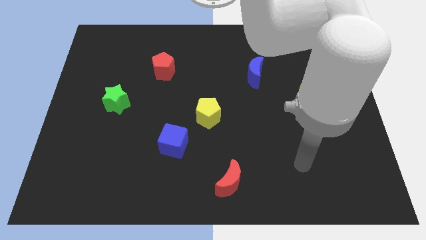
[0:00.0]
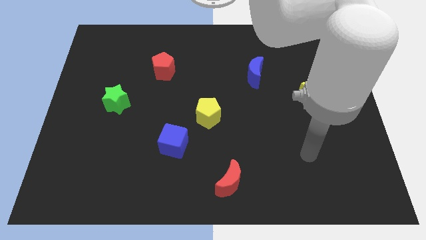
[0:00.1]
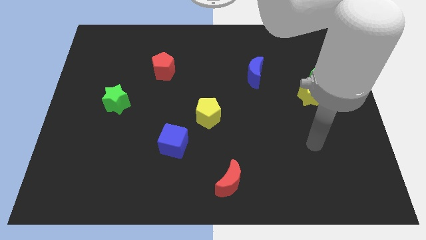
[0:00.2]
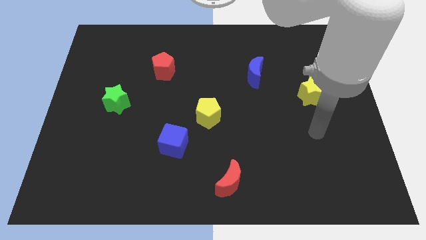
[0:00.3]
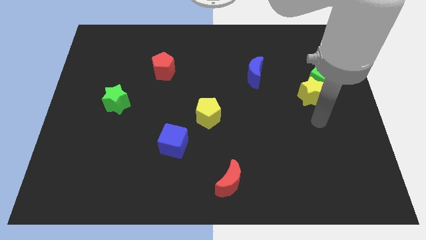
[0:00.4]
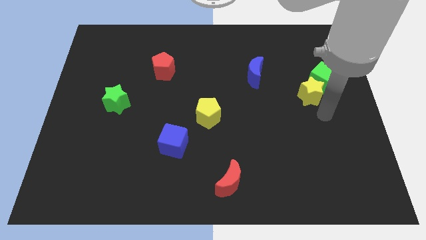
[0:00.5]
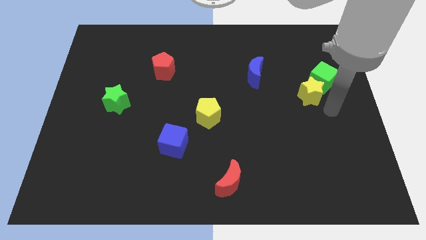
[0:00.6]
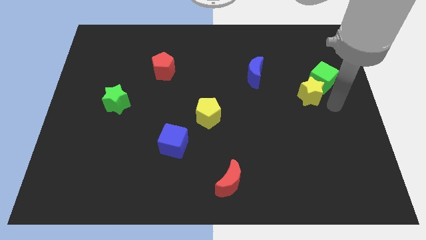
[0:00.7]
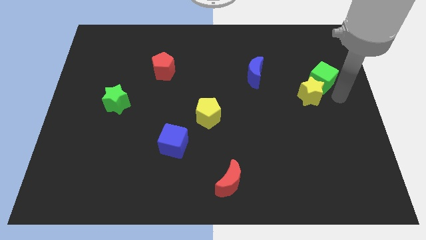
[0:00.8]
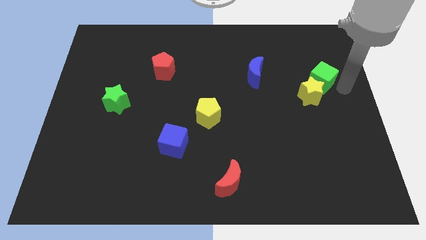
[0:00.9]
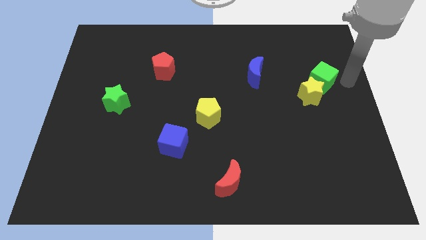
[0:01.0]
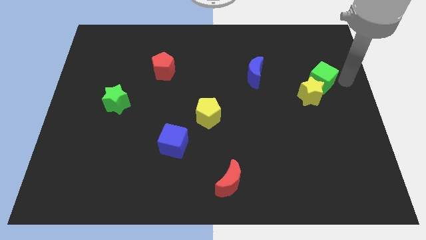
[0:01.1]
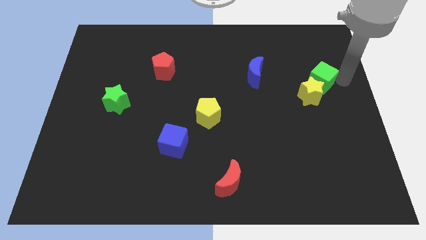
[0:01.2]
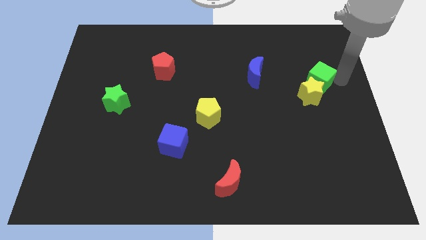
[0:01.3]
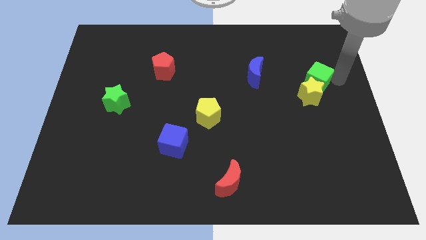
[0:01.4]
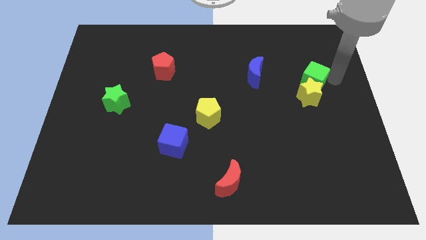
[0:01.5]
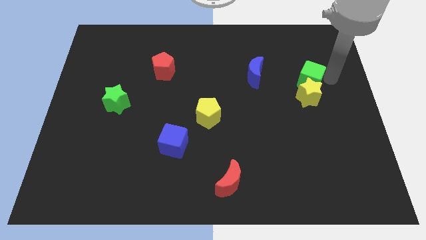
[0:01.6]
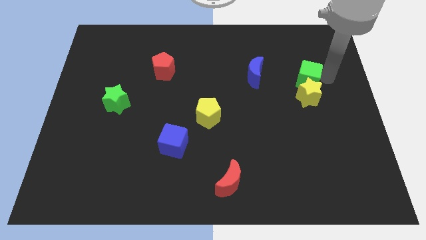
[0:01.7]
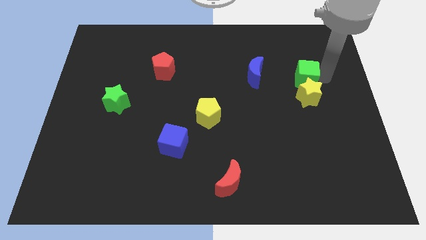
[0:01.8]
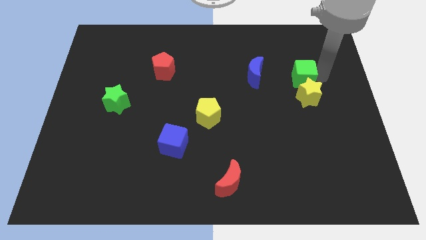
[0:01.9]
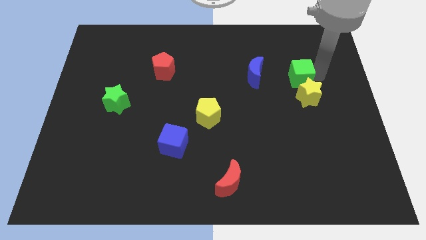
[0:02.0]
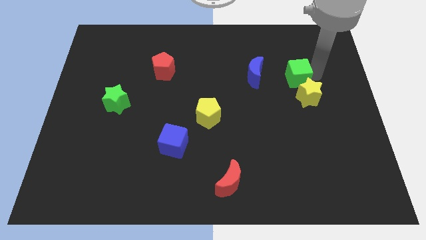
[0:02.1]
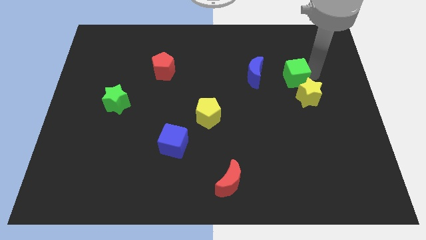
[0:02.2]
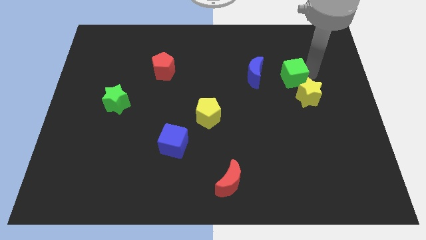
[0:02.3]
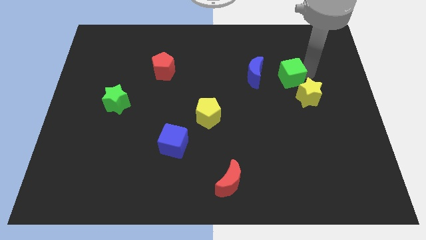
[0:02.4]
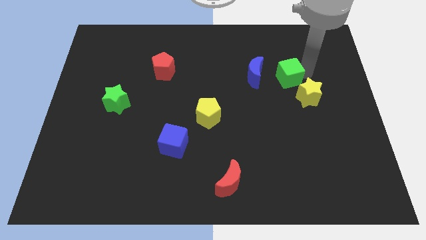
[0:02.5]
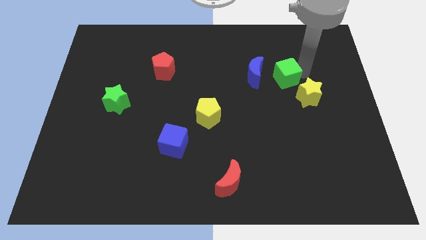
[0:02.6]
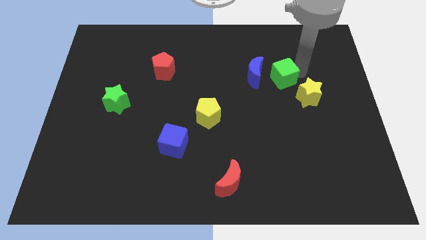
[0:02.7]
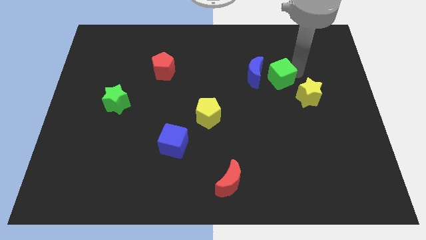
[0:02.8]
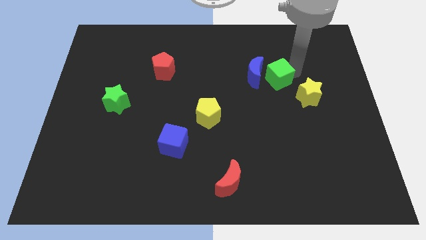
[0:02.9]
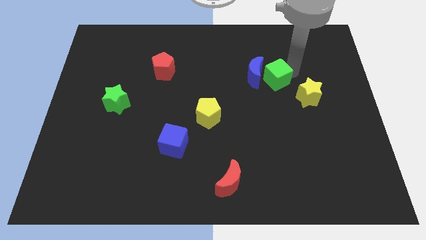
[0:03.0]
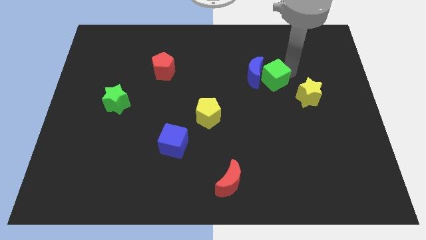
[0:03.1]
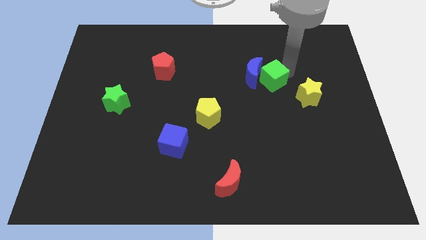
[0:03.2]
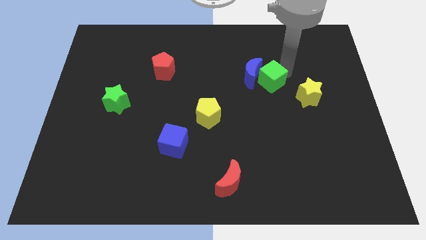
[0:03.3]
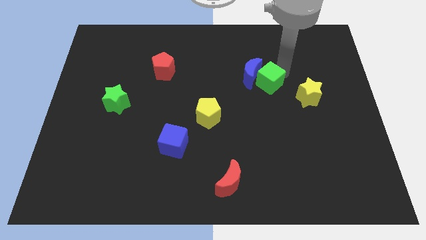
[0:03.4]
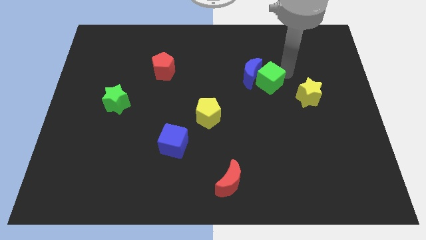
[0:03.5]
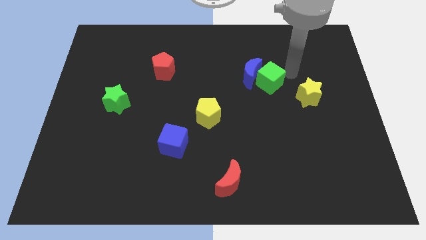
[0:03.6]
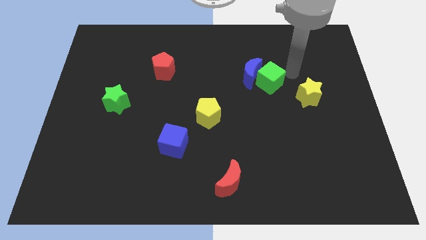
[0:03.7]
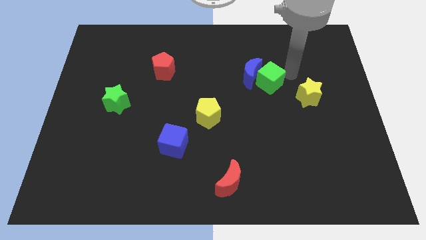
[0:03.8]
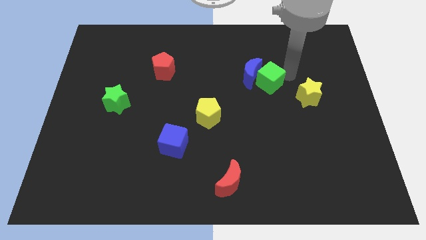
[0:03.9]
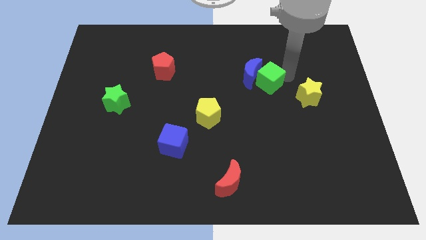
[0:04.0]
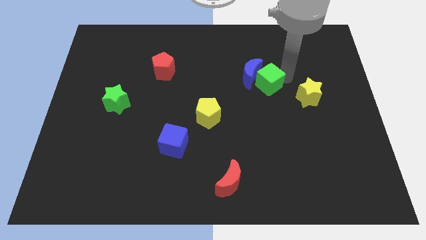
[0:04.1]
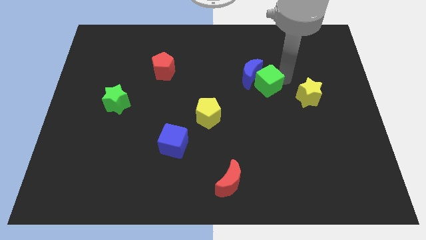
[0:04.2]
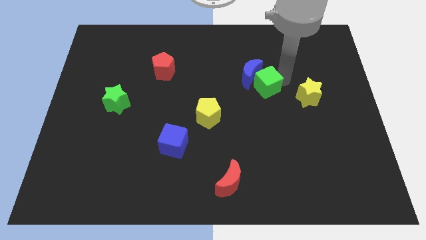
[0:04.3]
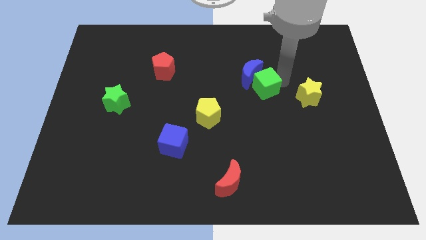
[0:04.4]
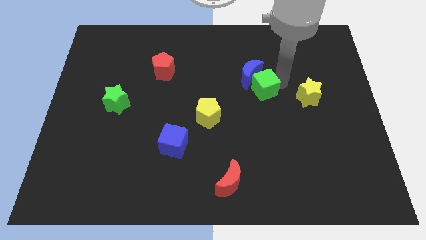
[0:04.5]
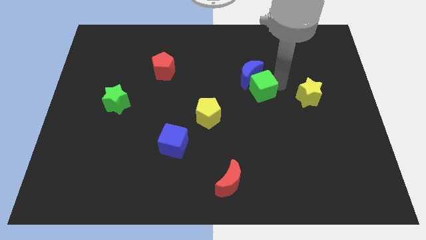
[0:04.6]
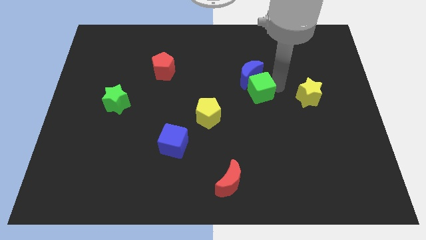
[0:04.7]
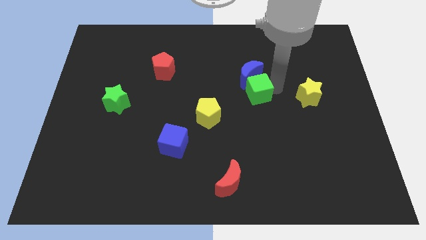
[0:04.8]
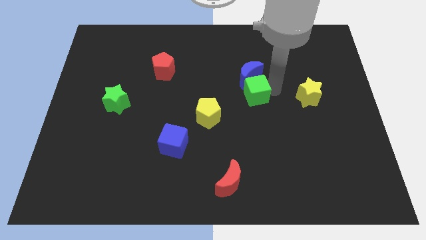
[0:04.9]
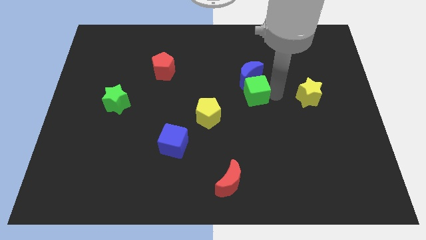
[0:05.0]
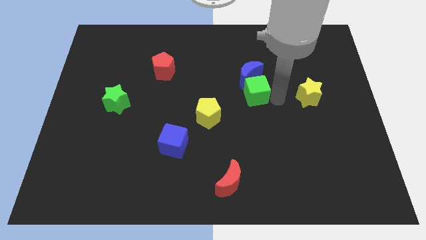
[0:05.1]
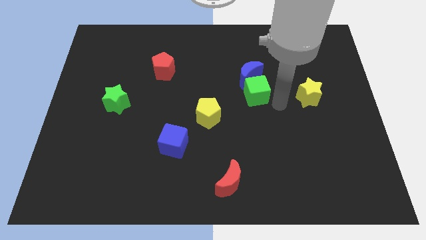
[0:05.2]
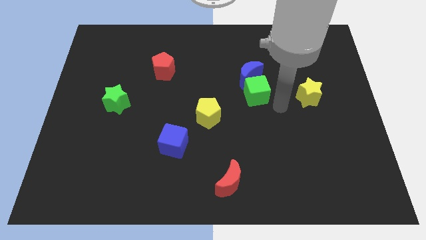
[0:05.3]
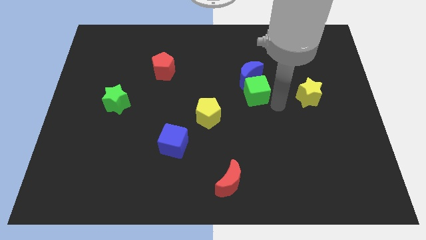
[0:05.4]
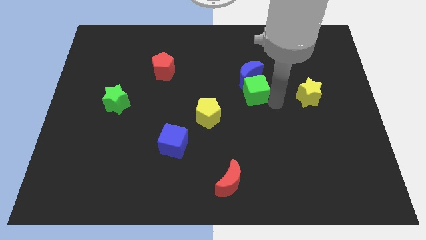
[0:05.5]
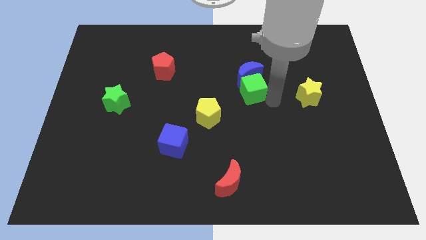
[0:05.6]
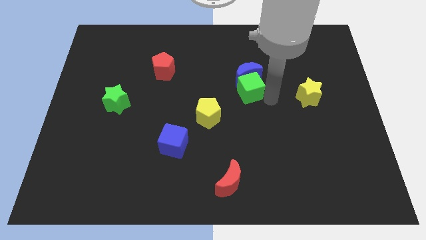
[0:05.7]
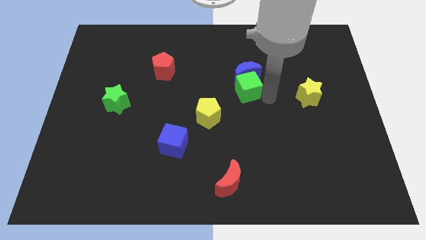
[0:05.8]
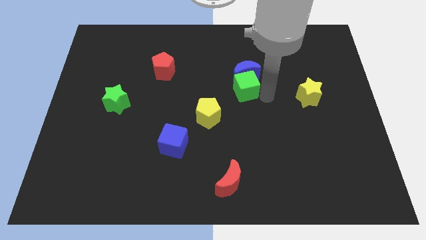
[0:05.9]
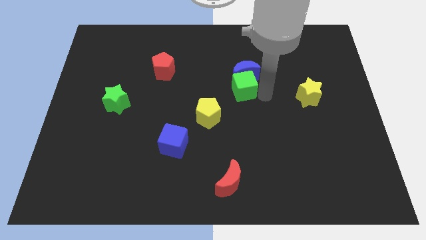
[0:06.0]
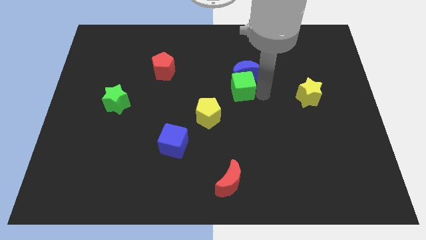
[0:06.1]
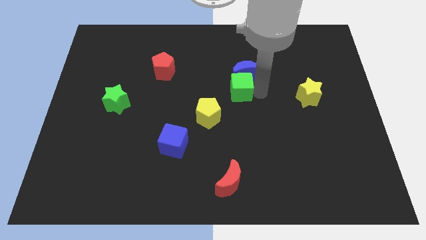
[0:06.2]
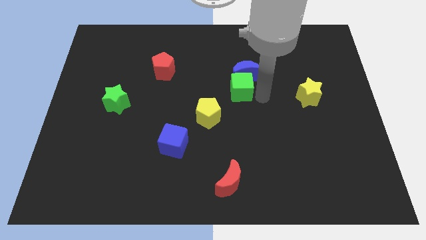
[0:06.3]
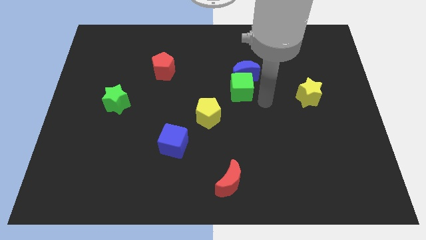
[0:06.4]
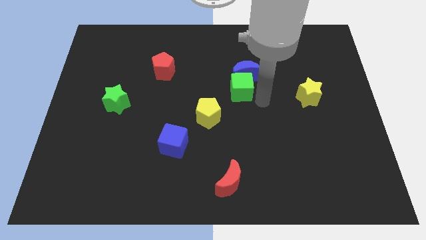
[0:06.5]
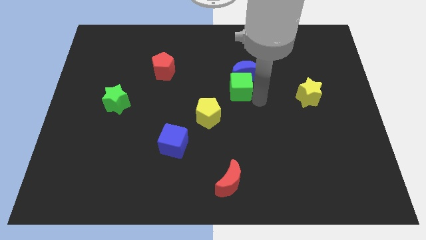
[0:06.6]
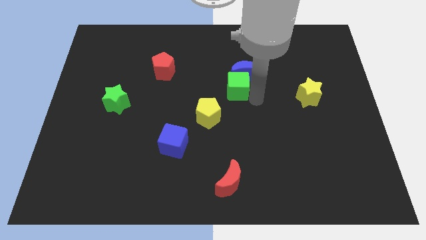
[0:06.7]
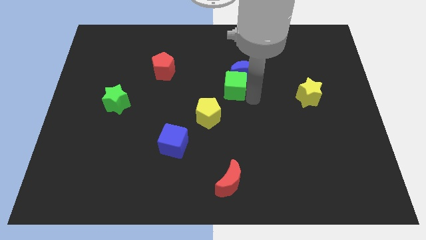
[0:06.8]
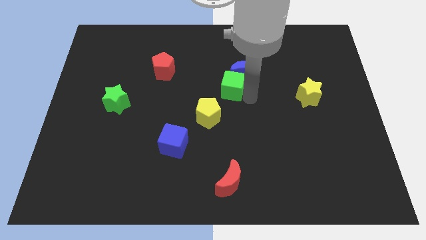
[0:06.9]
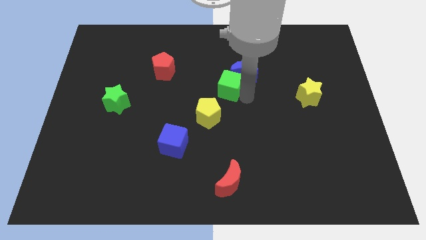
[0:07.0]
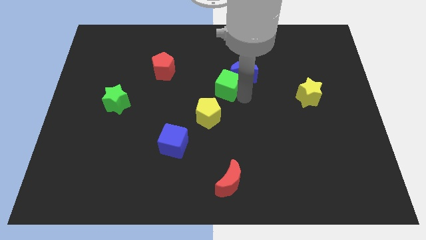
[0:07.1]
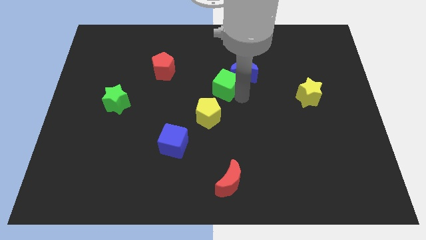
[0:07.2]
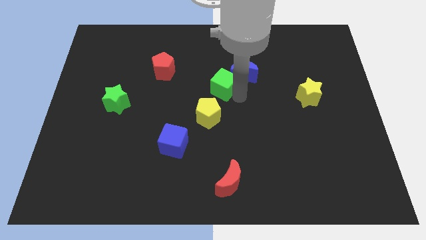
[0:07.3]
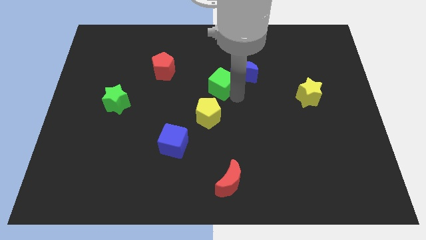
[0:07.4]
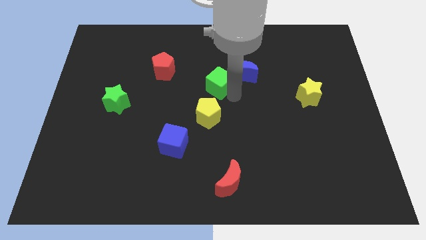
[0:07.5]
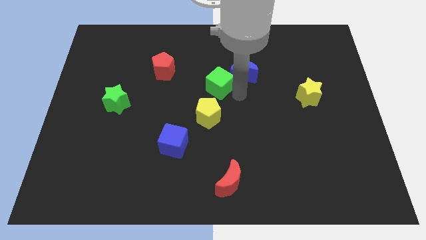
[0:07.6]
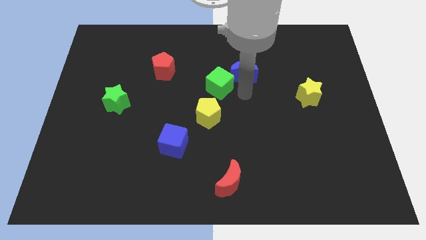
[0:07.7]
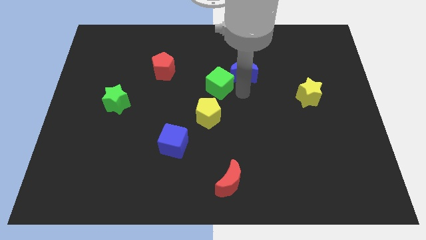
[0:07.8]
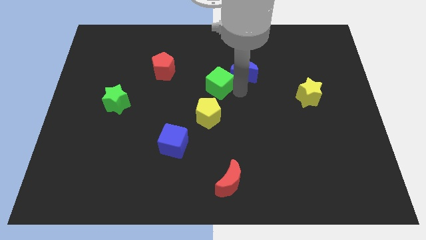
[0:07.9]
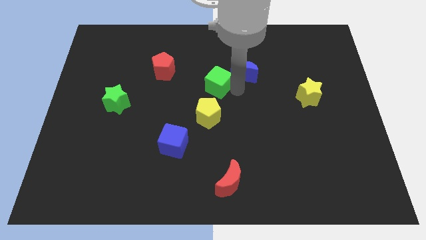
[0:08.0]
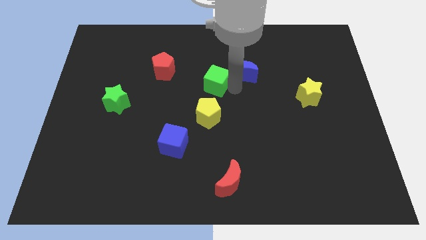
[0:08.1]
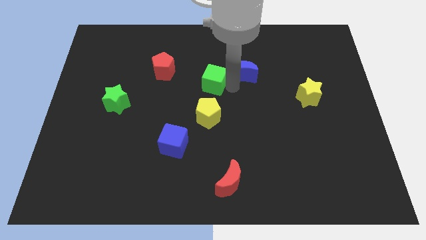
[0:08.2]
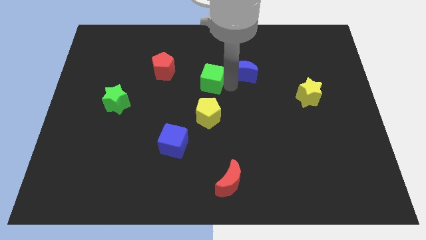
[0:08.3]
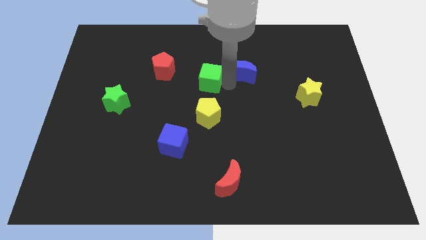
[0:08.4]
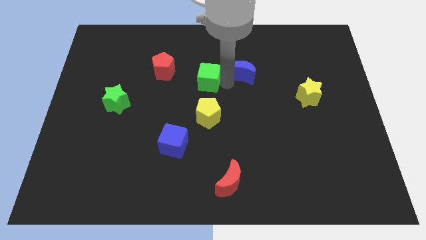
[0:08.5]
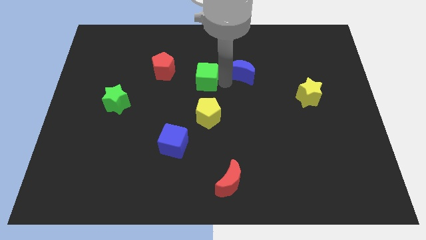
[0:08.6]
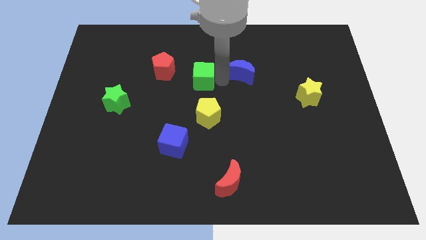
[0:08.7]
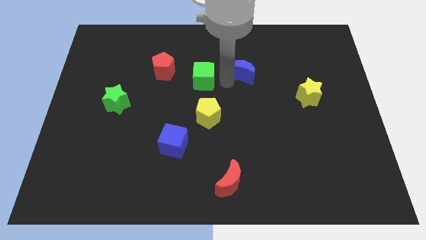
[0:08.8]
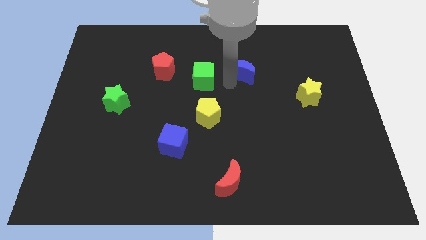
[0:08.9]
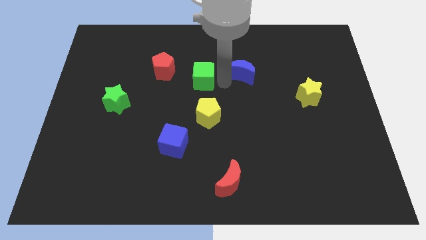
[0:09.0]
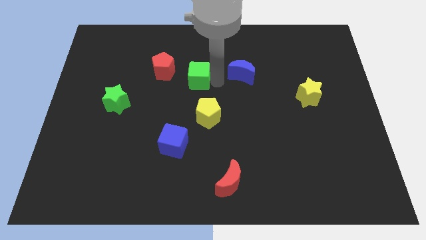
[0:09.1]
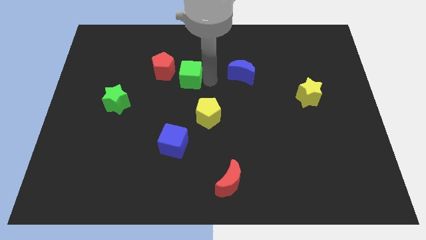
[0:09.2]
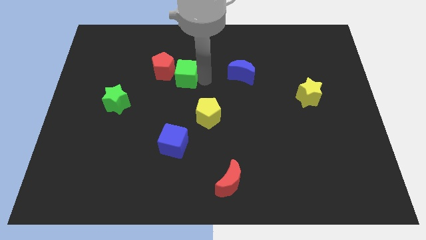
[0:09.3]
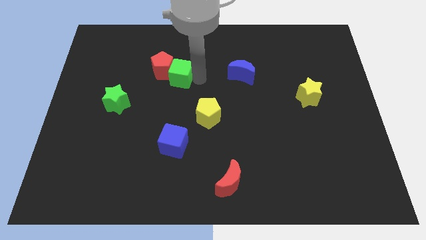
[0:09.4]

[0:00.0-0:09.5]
push the green cube to the red pentagon
